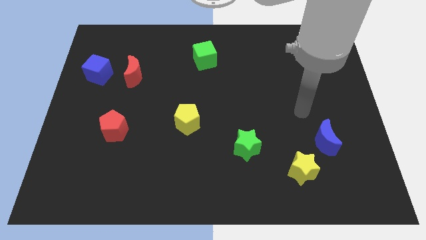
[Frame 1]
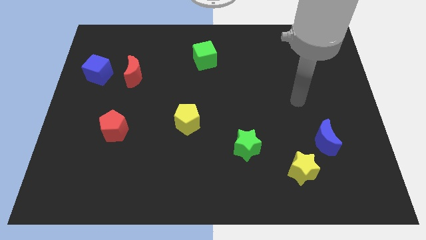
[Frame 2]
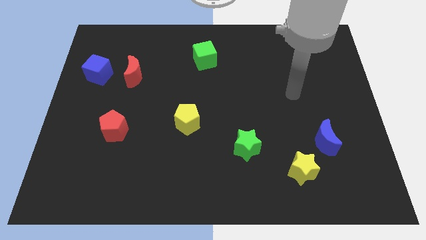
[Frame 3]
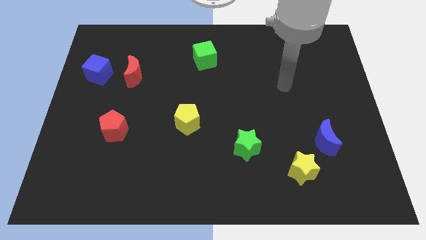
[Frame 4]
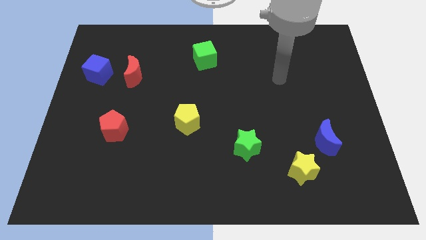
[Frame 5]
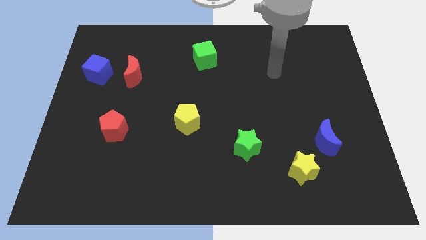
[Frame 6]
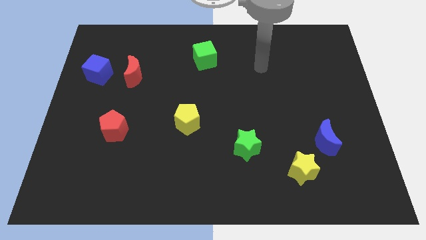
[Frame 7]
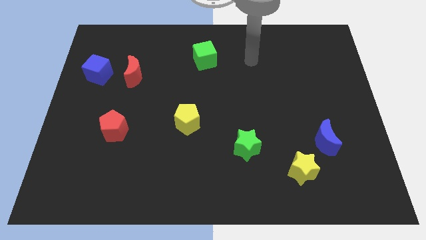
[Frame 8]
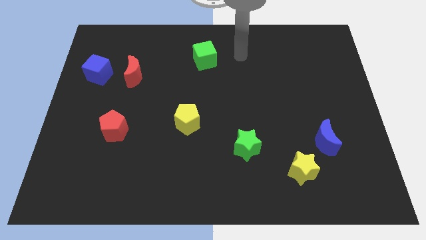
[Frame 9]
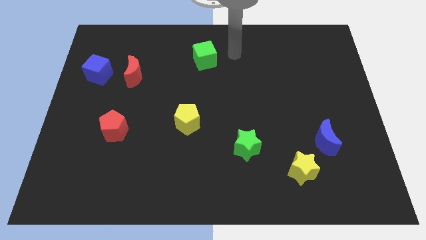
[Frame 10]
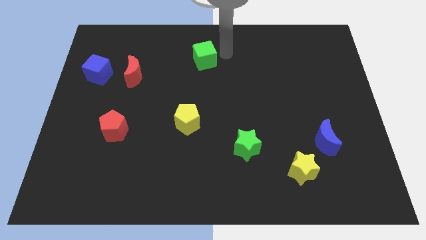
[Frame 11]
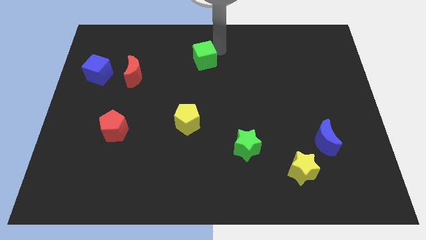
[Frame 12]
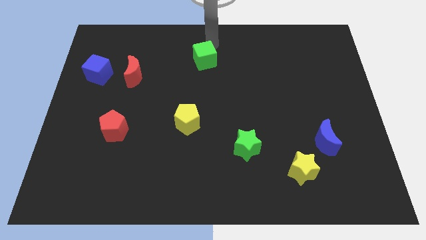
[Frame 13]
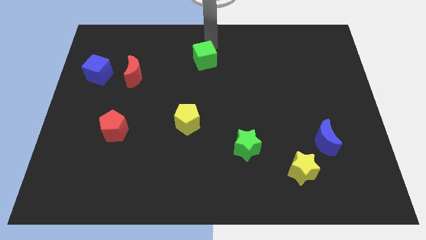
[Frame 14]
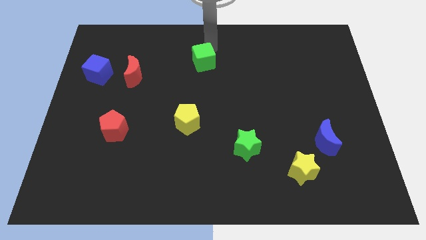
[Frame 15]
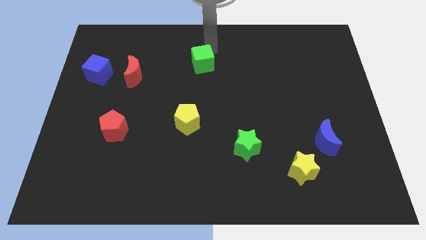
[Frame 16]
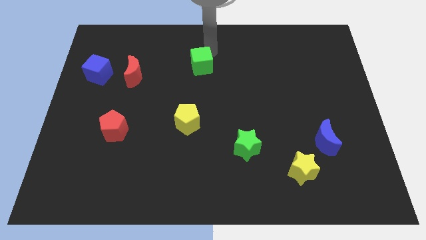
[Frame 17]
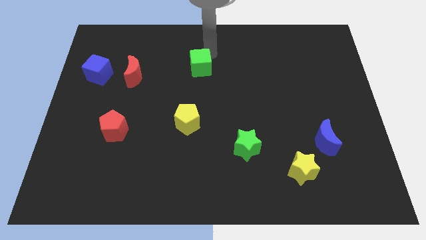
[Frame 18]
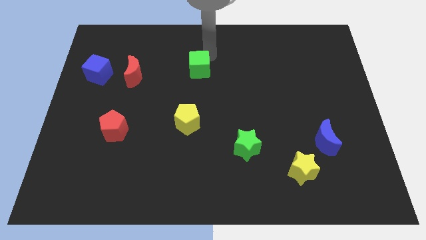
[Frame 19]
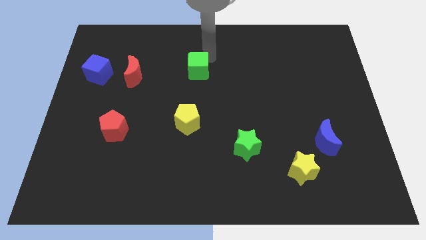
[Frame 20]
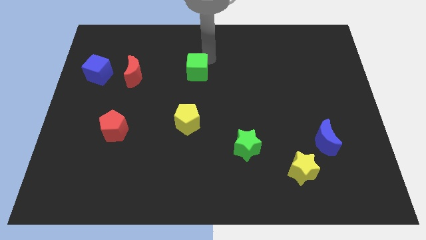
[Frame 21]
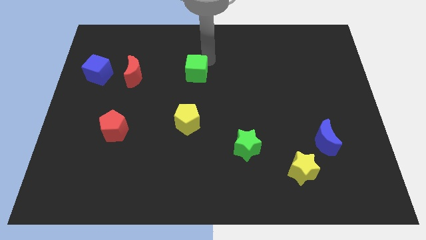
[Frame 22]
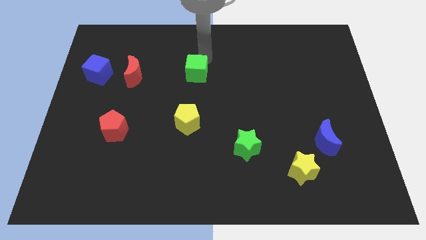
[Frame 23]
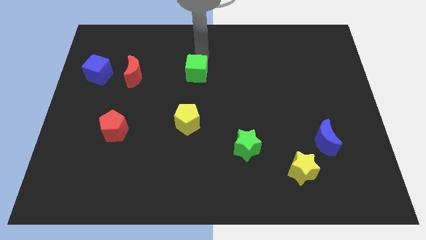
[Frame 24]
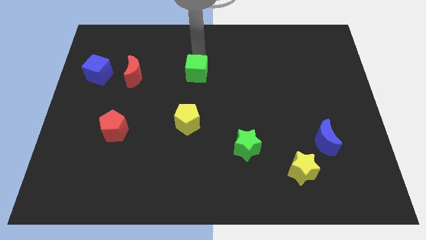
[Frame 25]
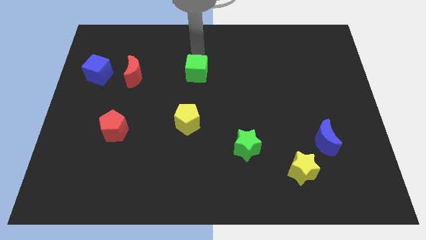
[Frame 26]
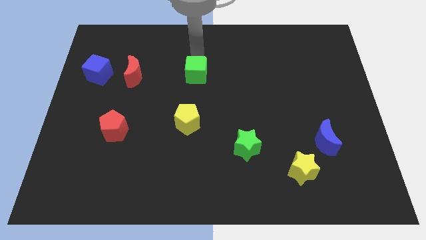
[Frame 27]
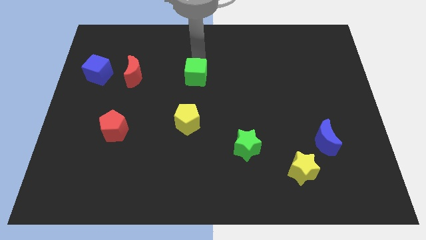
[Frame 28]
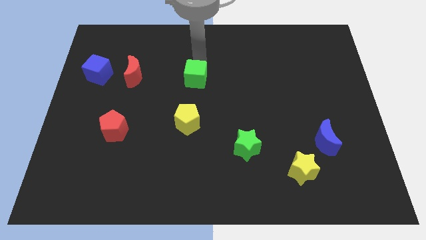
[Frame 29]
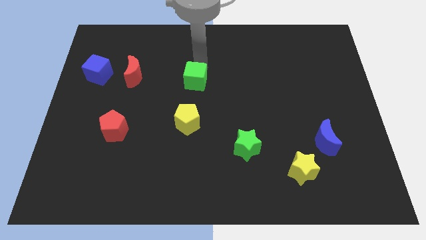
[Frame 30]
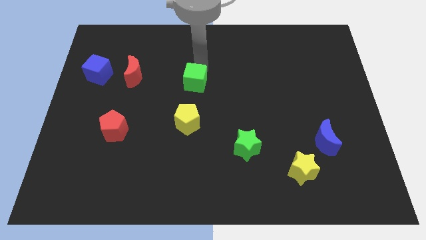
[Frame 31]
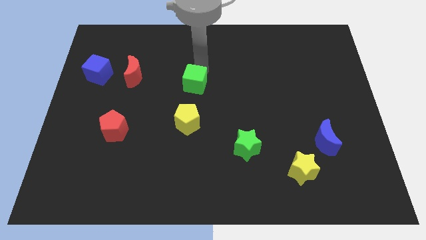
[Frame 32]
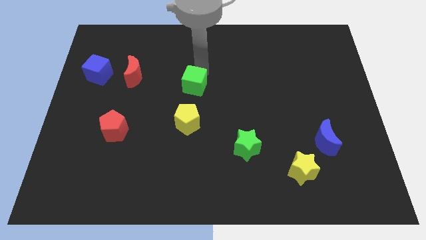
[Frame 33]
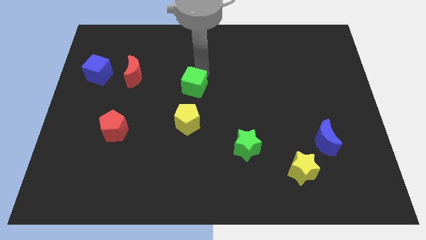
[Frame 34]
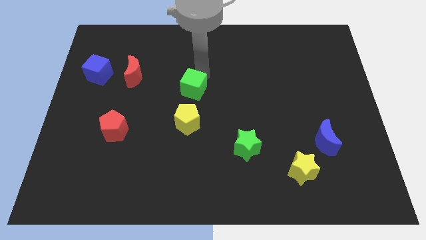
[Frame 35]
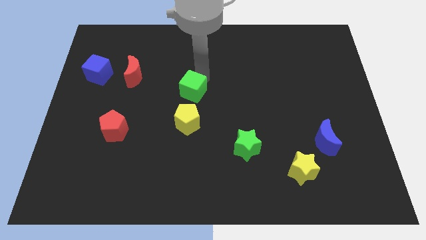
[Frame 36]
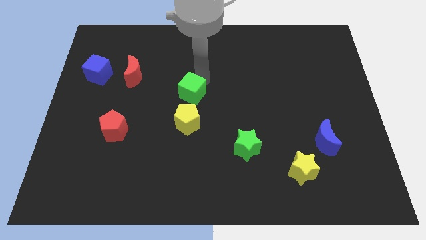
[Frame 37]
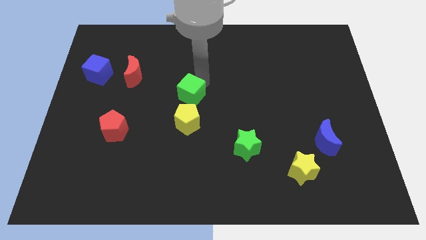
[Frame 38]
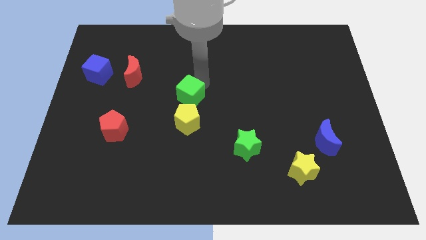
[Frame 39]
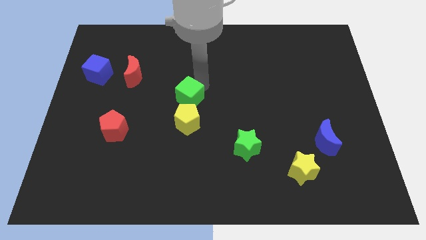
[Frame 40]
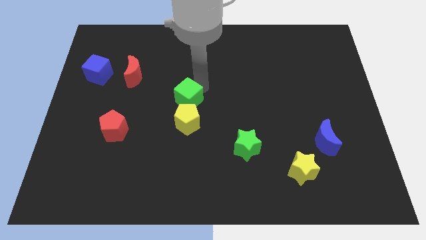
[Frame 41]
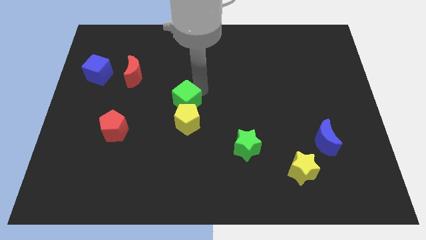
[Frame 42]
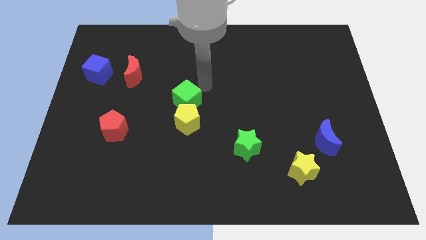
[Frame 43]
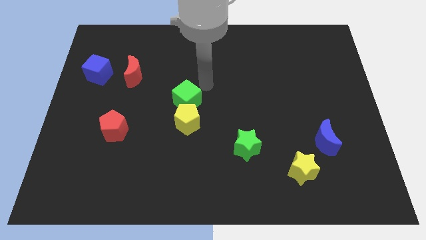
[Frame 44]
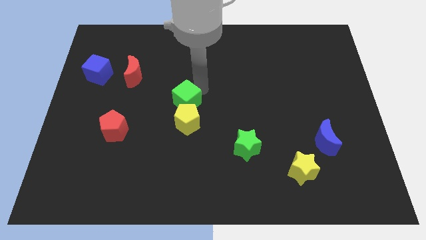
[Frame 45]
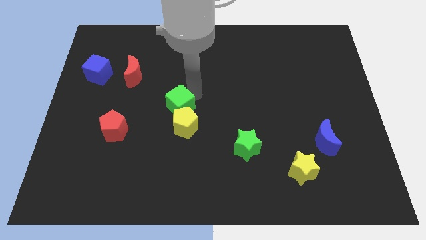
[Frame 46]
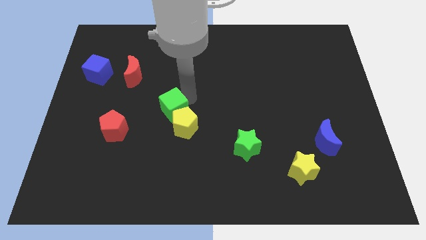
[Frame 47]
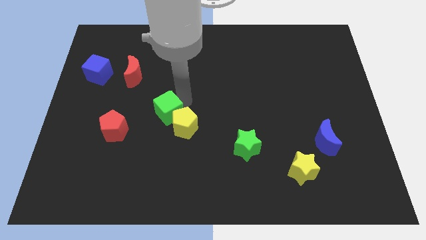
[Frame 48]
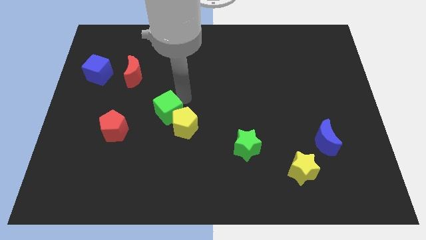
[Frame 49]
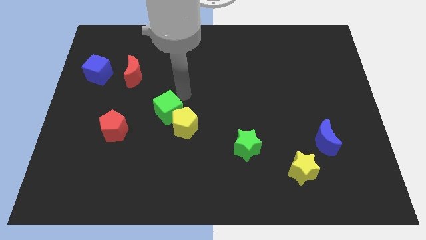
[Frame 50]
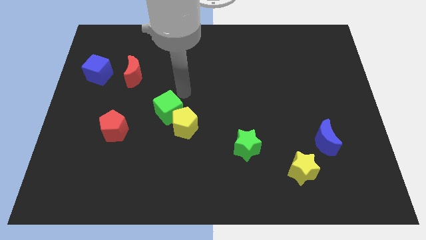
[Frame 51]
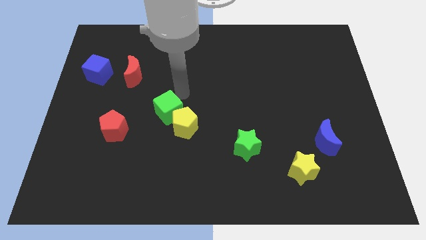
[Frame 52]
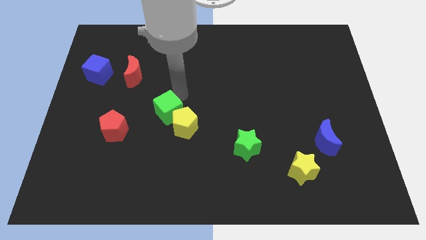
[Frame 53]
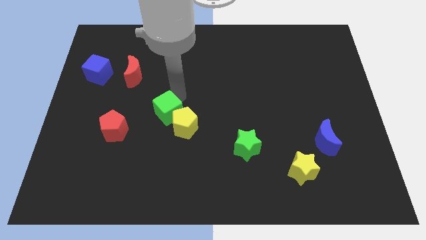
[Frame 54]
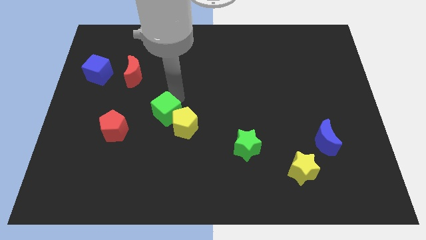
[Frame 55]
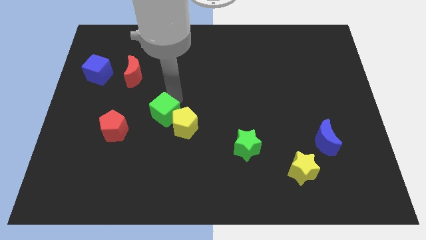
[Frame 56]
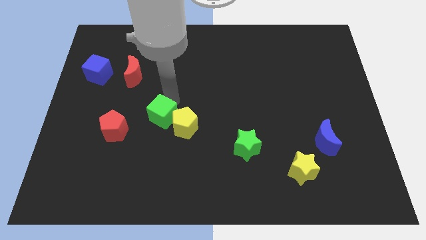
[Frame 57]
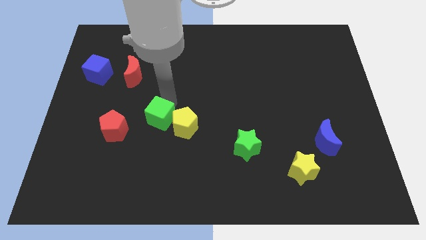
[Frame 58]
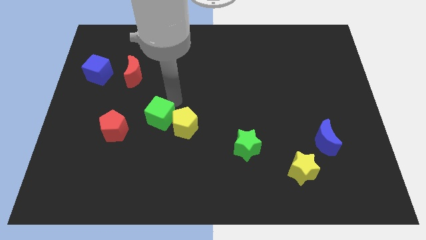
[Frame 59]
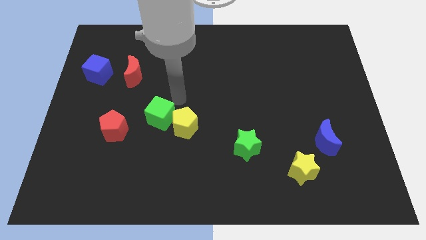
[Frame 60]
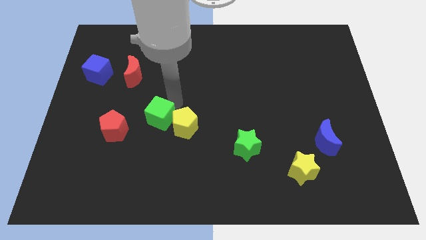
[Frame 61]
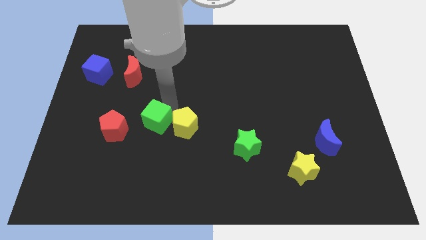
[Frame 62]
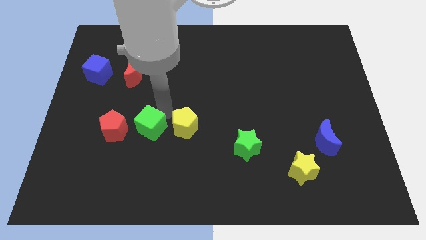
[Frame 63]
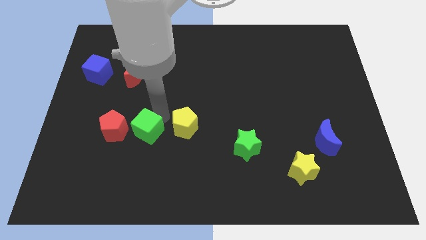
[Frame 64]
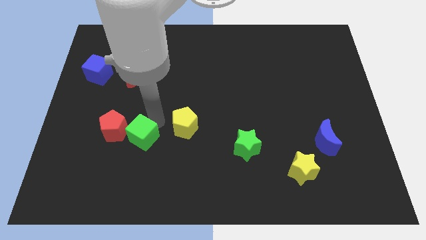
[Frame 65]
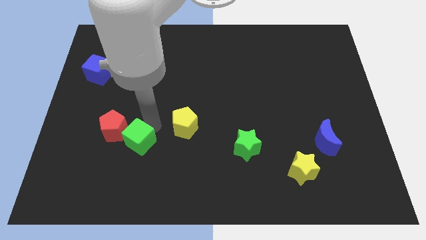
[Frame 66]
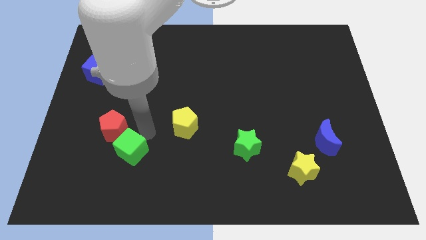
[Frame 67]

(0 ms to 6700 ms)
push the green cube to the bottom side of the red pentagon
